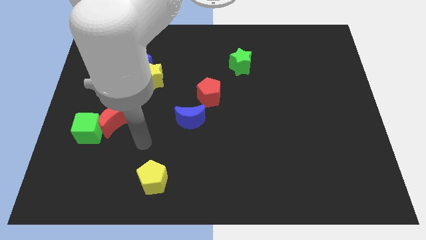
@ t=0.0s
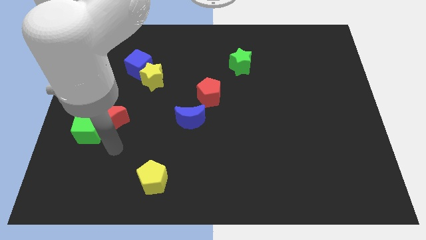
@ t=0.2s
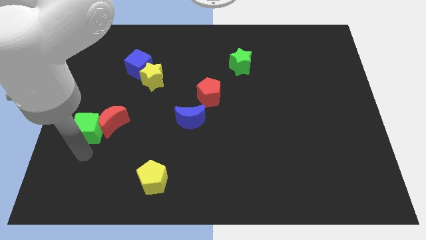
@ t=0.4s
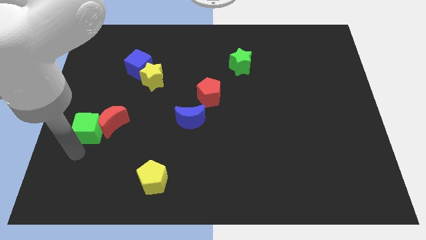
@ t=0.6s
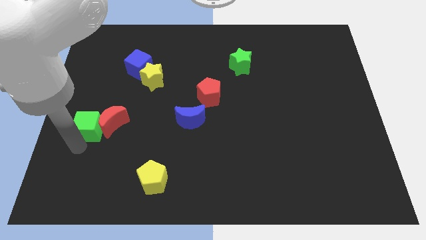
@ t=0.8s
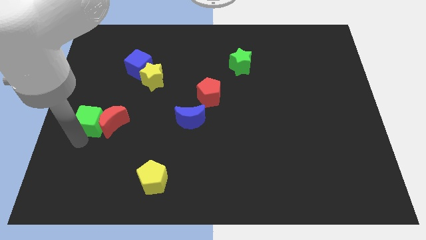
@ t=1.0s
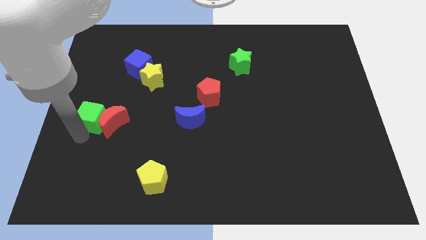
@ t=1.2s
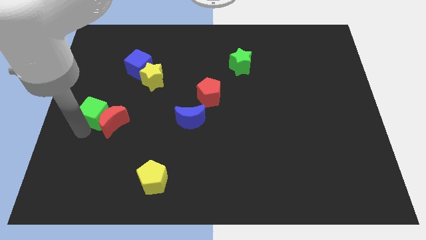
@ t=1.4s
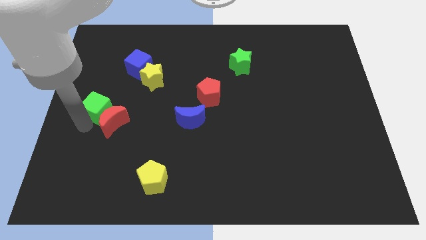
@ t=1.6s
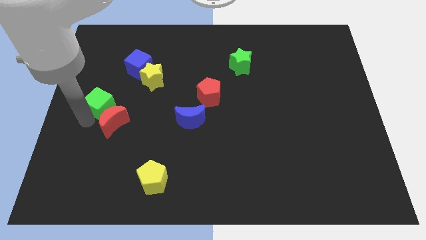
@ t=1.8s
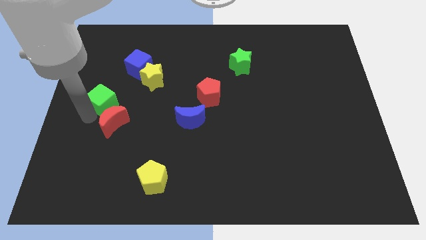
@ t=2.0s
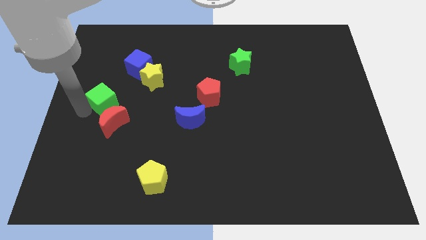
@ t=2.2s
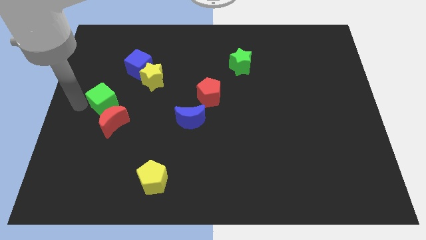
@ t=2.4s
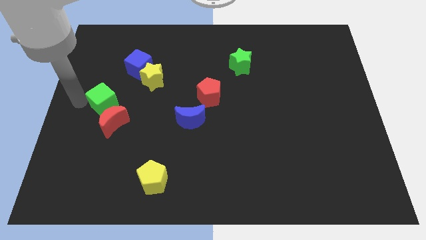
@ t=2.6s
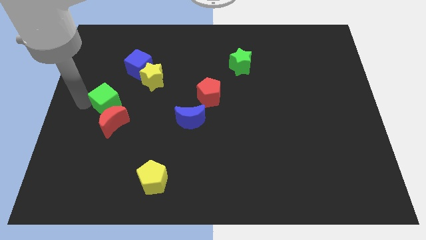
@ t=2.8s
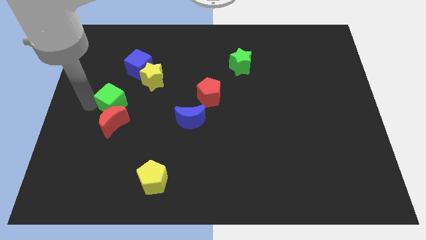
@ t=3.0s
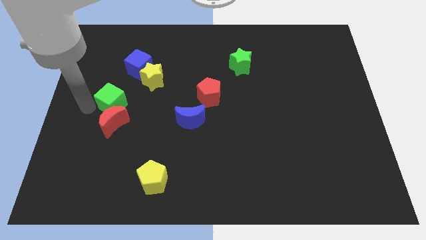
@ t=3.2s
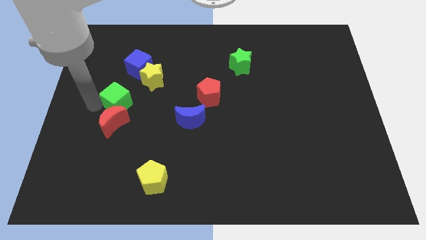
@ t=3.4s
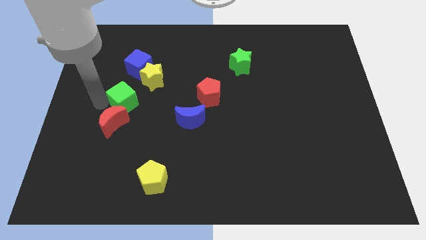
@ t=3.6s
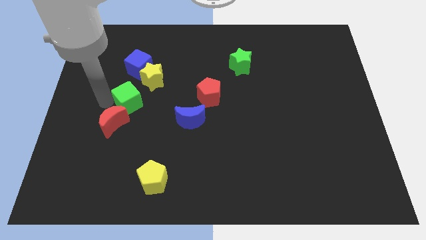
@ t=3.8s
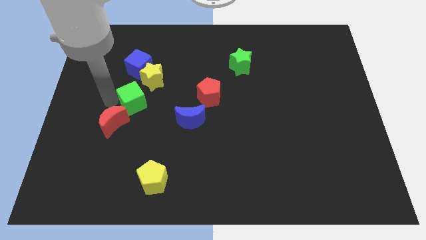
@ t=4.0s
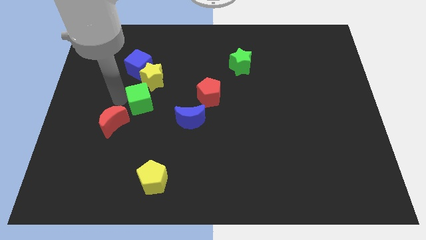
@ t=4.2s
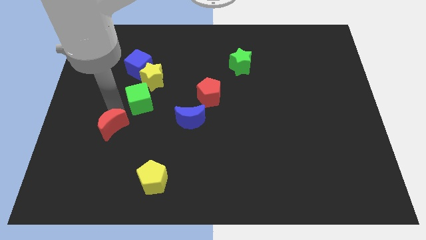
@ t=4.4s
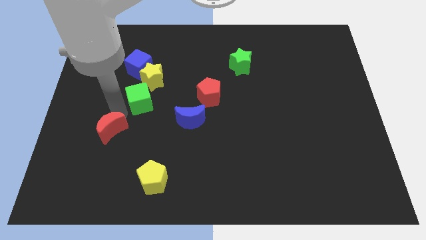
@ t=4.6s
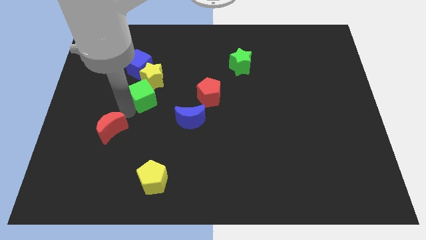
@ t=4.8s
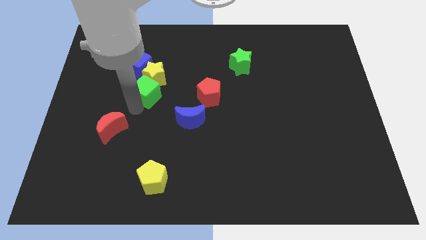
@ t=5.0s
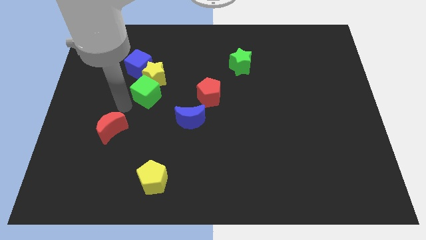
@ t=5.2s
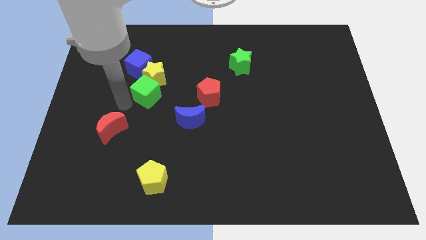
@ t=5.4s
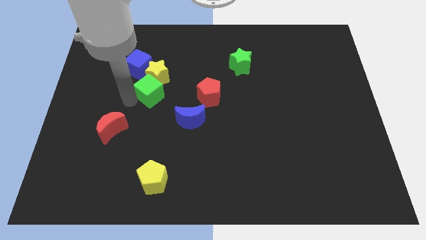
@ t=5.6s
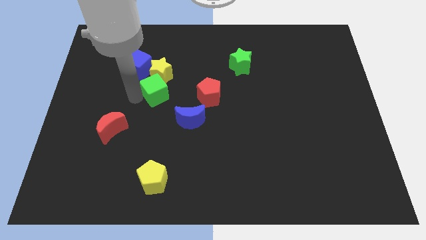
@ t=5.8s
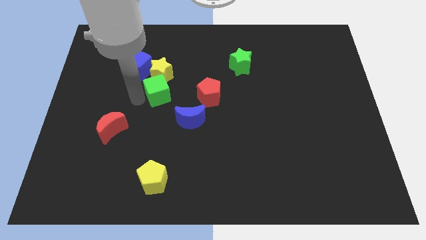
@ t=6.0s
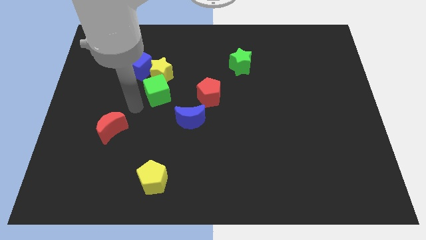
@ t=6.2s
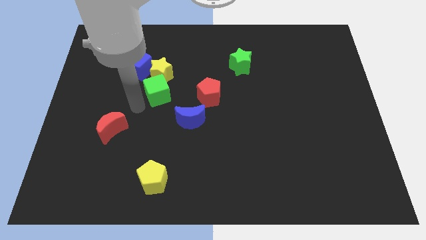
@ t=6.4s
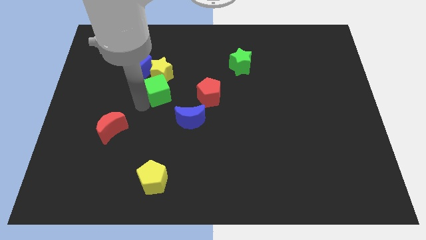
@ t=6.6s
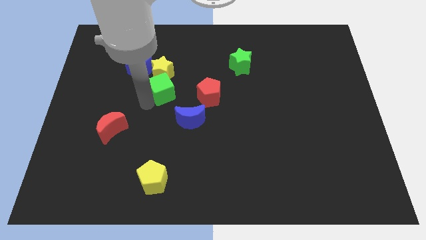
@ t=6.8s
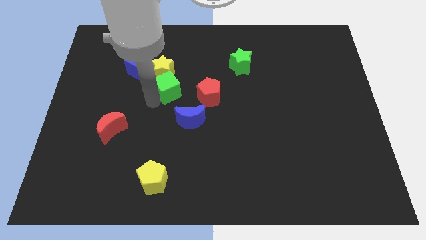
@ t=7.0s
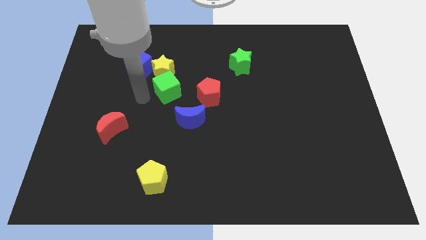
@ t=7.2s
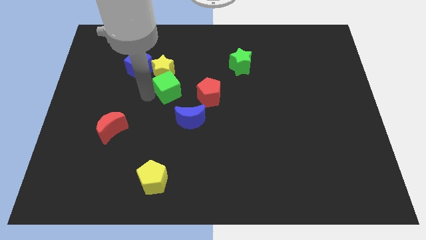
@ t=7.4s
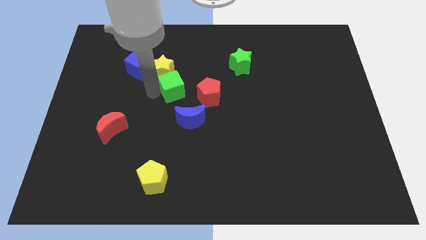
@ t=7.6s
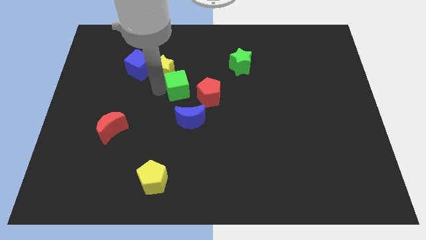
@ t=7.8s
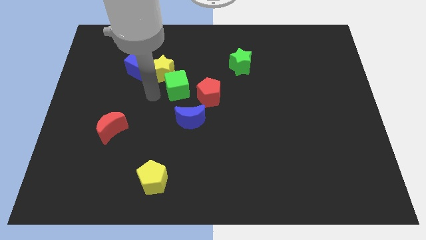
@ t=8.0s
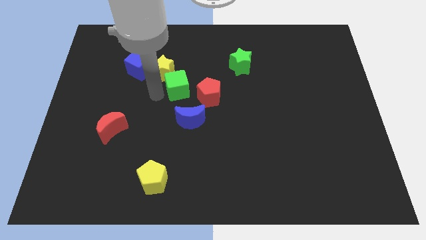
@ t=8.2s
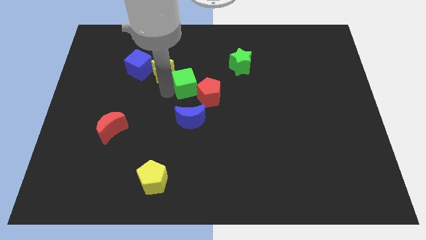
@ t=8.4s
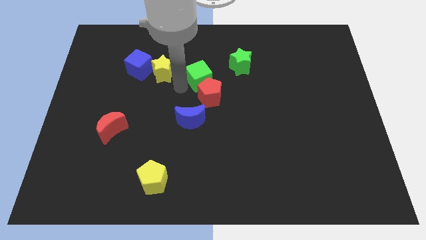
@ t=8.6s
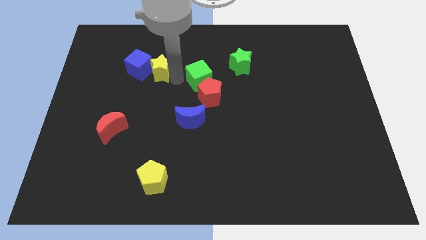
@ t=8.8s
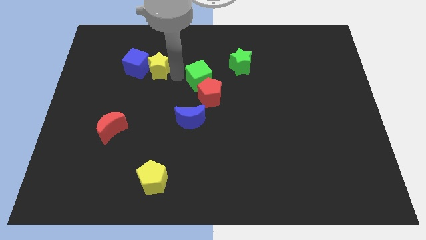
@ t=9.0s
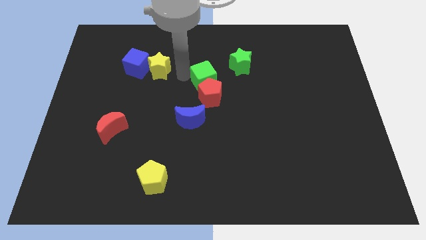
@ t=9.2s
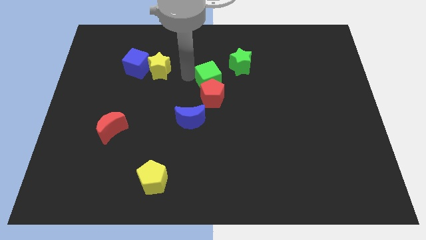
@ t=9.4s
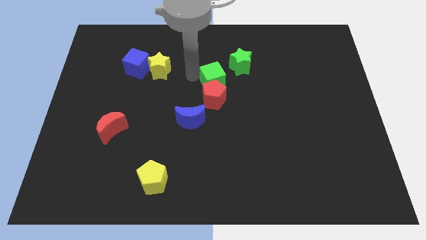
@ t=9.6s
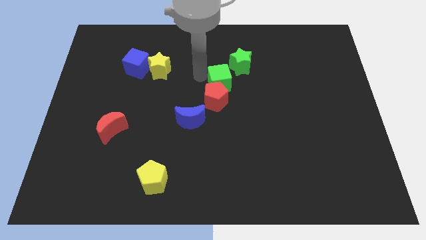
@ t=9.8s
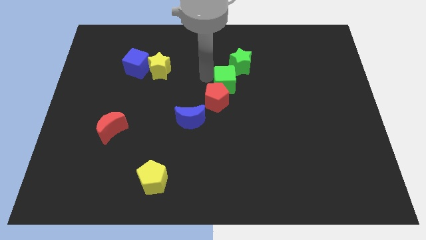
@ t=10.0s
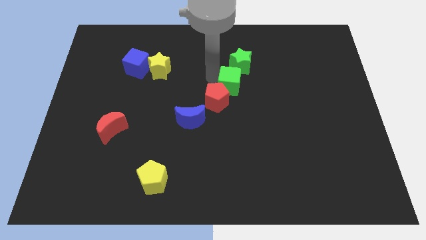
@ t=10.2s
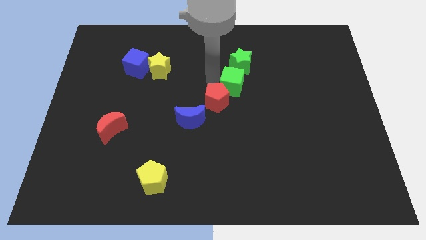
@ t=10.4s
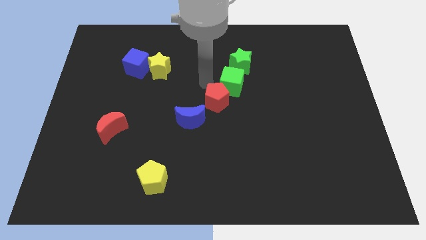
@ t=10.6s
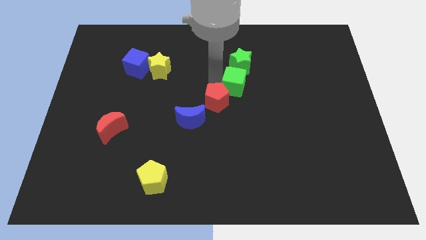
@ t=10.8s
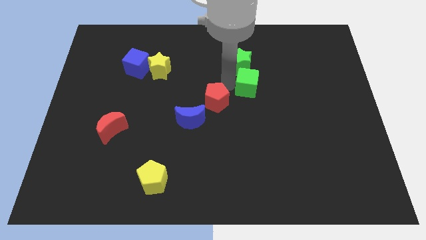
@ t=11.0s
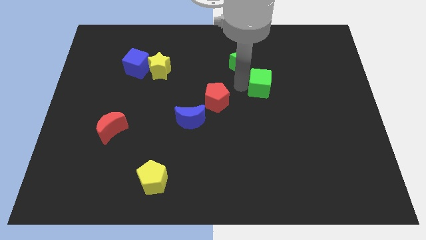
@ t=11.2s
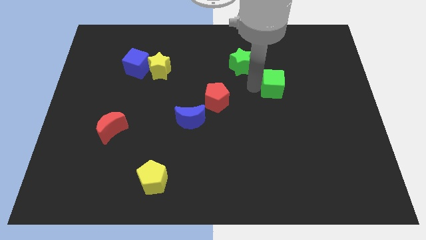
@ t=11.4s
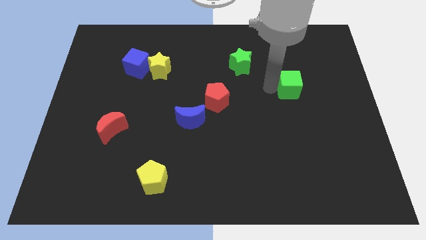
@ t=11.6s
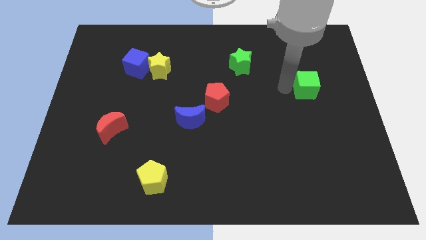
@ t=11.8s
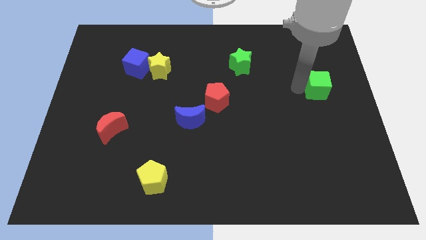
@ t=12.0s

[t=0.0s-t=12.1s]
slide the green cube to the center right
